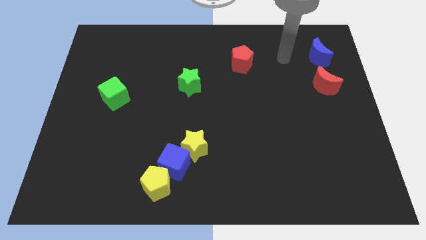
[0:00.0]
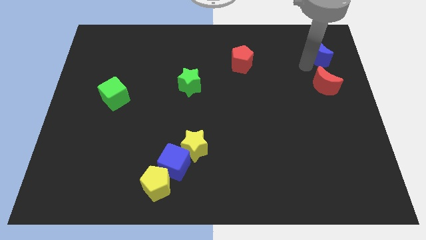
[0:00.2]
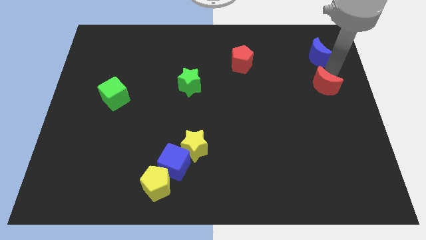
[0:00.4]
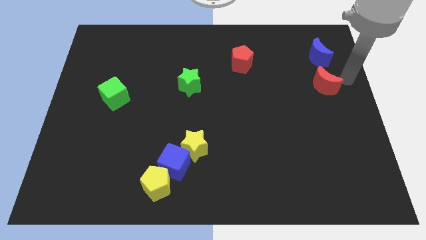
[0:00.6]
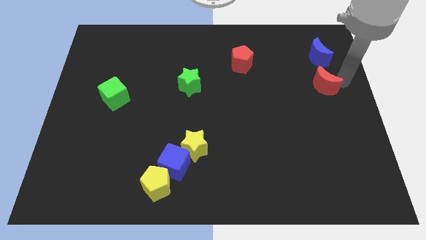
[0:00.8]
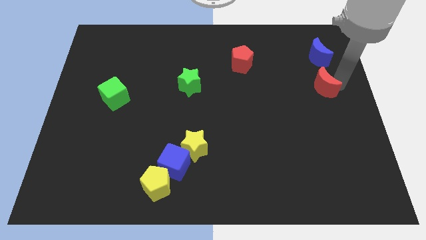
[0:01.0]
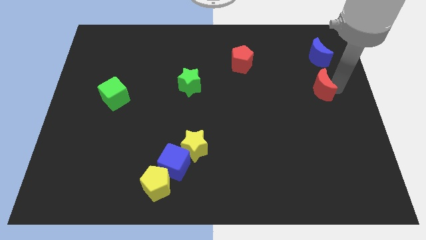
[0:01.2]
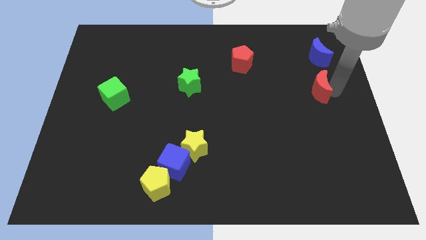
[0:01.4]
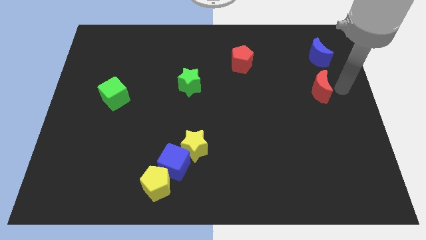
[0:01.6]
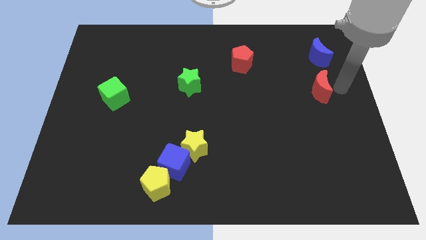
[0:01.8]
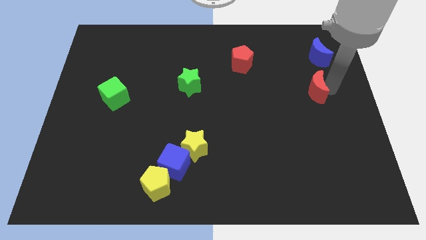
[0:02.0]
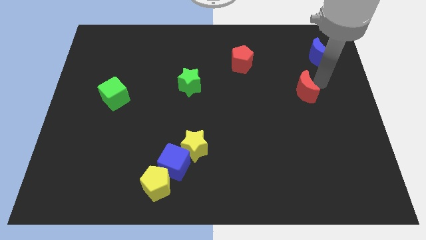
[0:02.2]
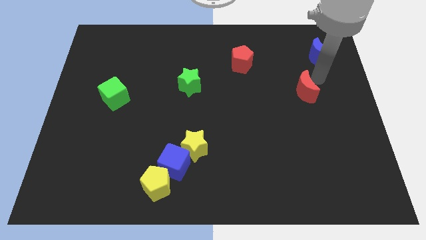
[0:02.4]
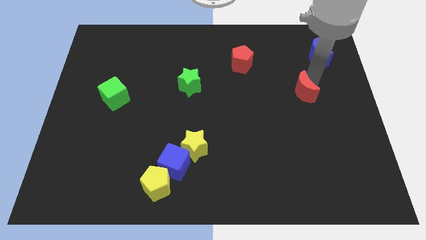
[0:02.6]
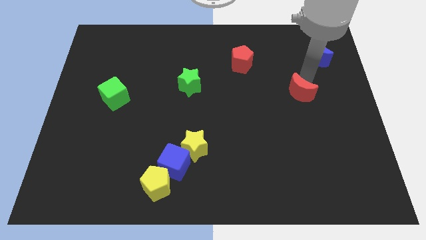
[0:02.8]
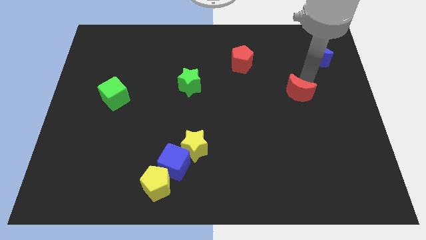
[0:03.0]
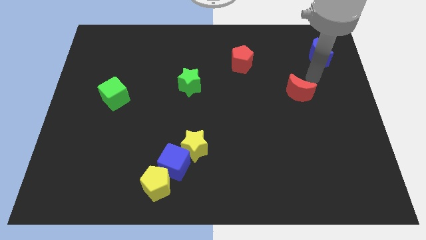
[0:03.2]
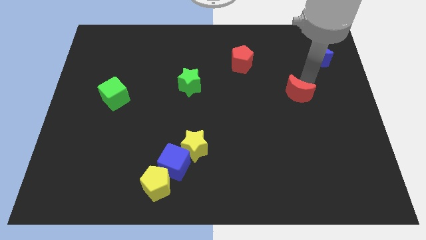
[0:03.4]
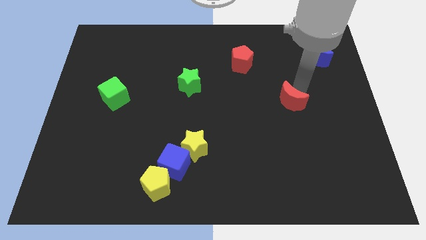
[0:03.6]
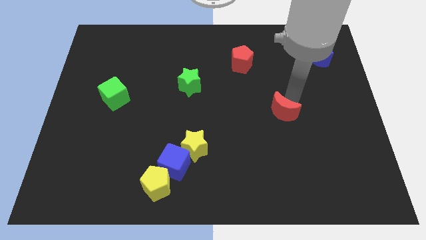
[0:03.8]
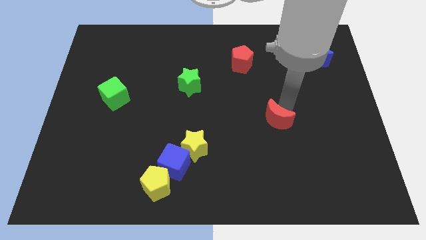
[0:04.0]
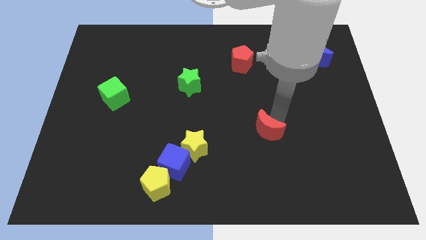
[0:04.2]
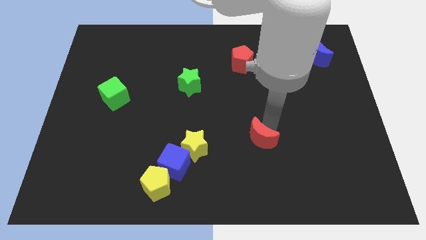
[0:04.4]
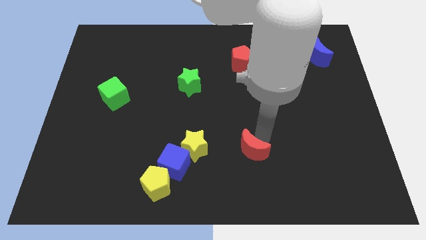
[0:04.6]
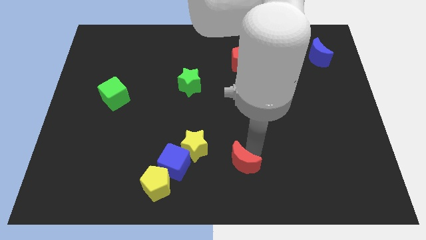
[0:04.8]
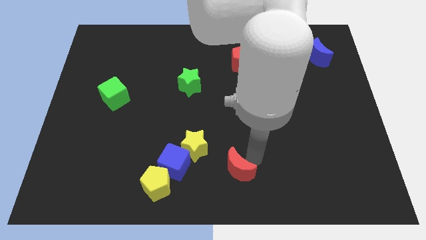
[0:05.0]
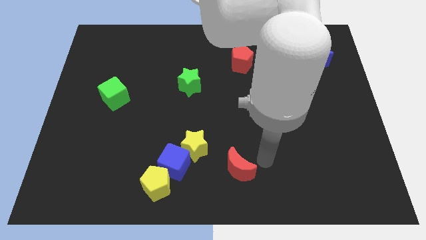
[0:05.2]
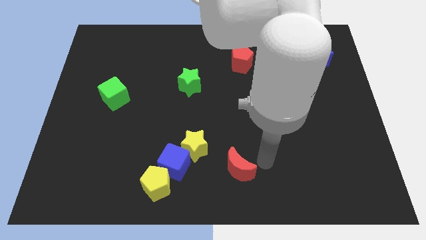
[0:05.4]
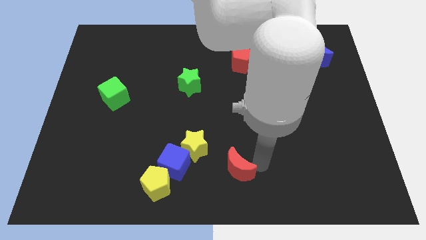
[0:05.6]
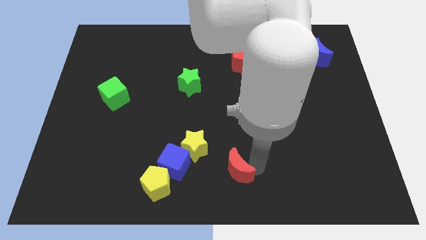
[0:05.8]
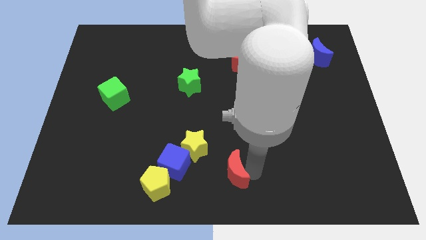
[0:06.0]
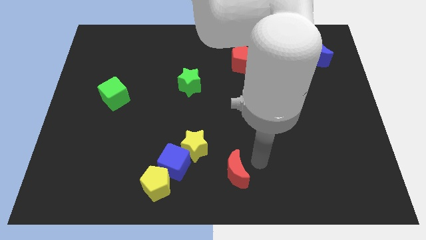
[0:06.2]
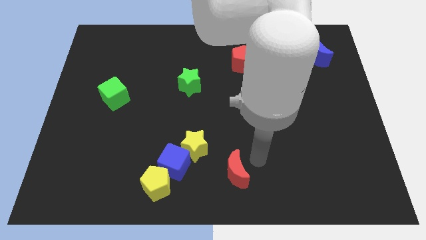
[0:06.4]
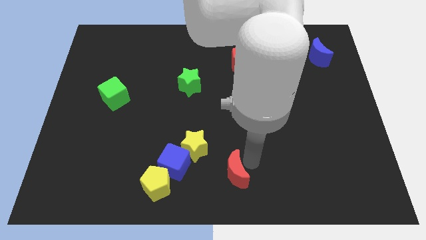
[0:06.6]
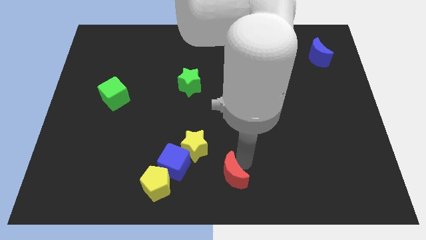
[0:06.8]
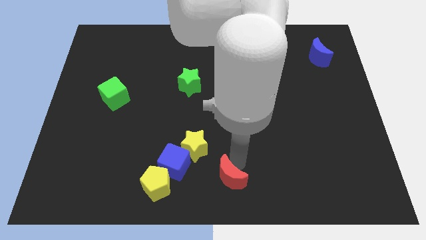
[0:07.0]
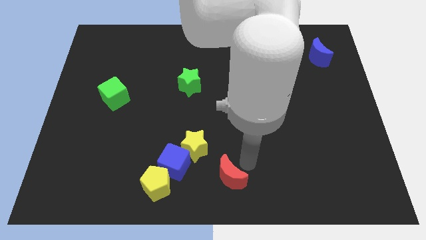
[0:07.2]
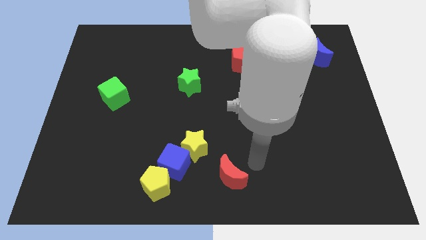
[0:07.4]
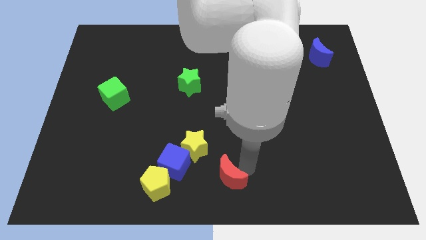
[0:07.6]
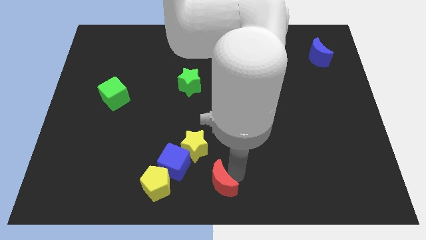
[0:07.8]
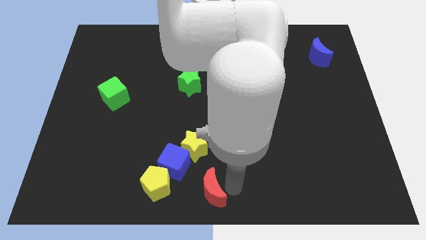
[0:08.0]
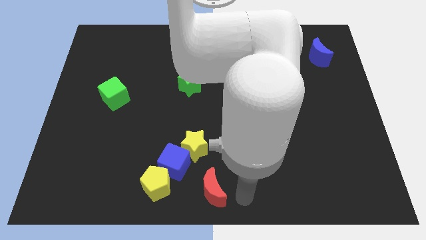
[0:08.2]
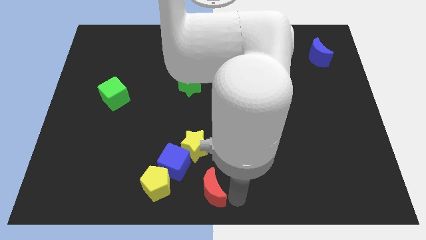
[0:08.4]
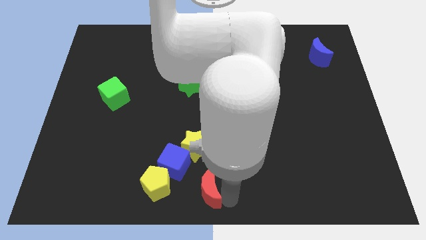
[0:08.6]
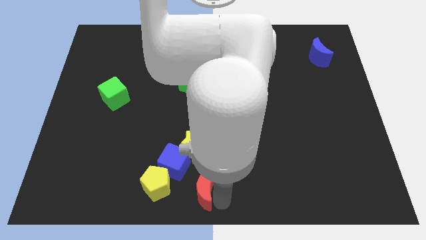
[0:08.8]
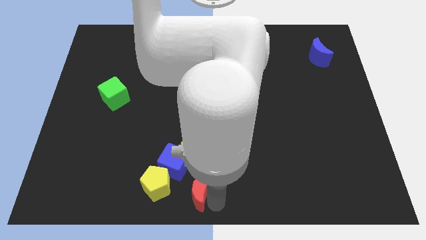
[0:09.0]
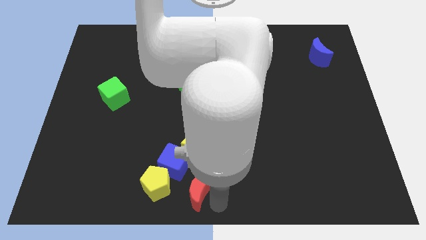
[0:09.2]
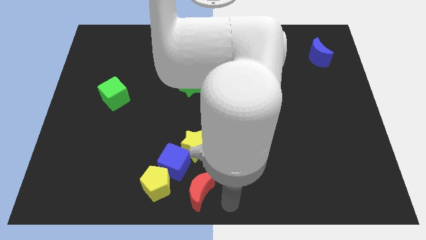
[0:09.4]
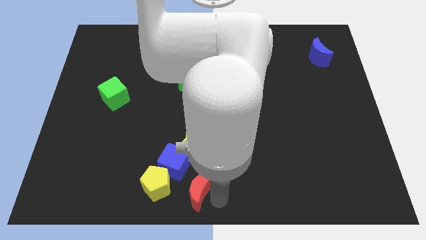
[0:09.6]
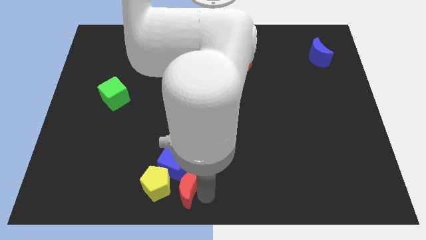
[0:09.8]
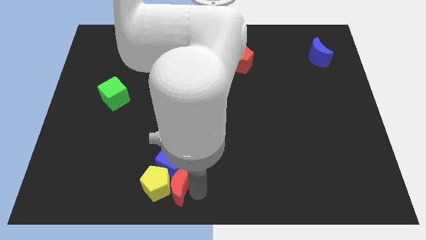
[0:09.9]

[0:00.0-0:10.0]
move the red moon next to the yellow pentagon

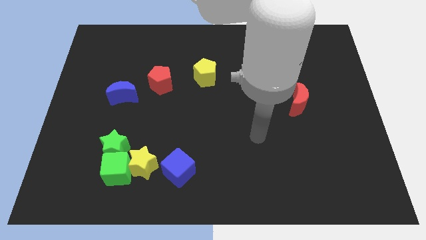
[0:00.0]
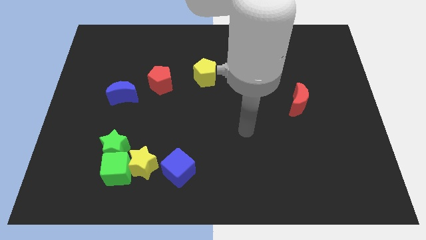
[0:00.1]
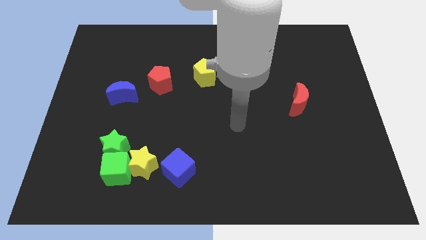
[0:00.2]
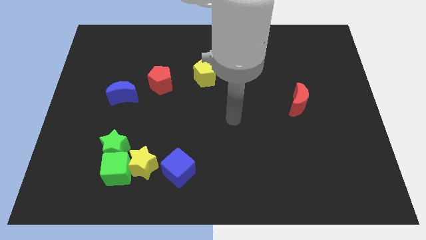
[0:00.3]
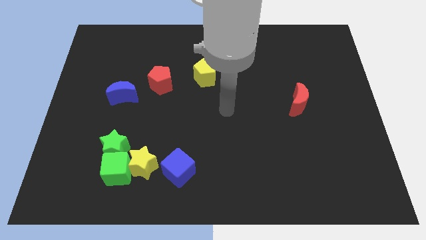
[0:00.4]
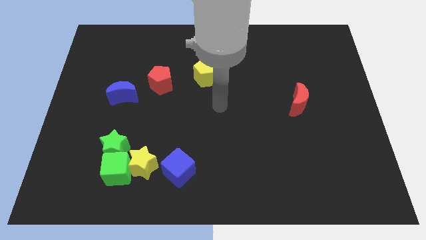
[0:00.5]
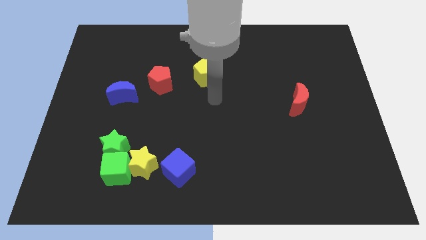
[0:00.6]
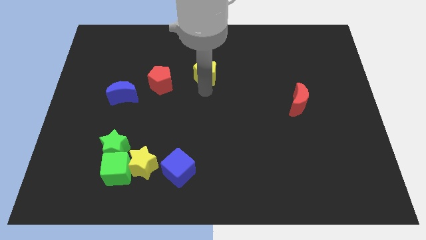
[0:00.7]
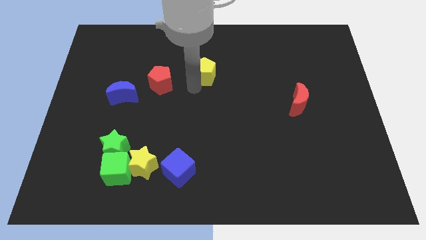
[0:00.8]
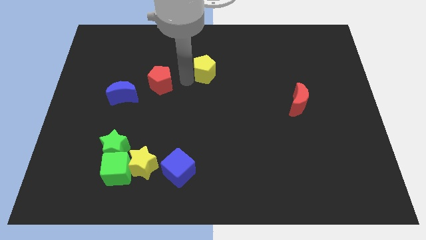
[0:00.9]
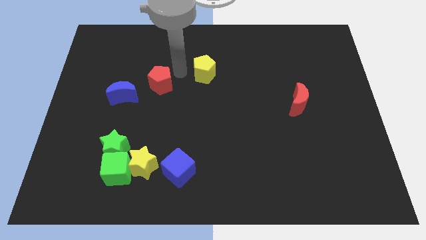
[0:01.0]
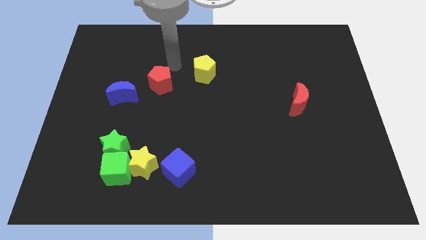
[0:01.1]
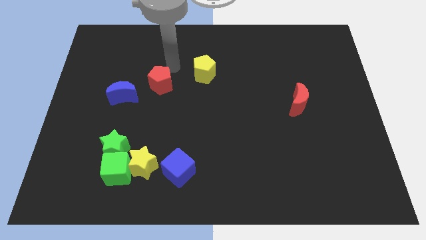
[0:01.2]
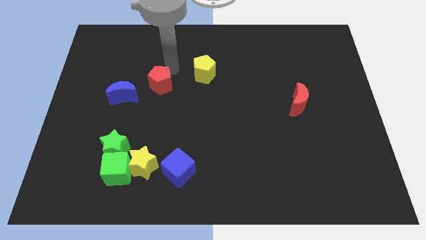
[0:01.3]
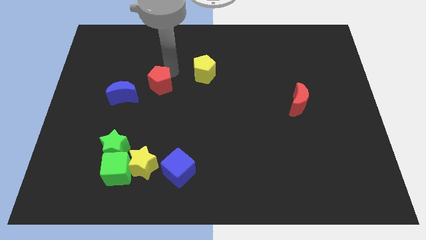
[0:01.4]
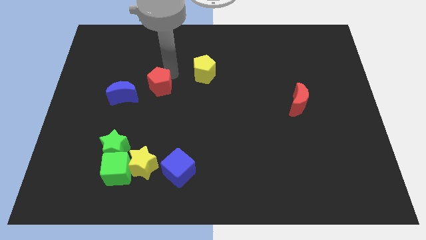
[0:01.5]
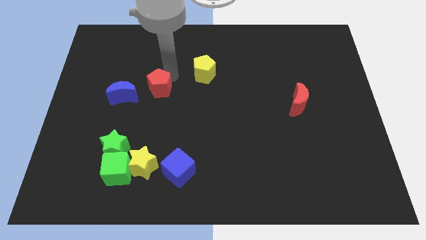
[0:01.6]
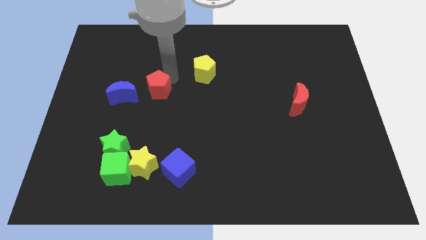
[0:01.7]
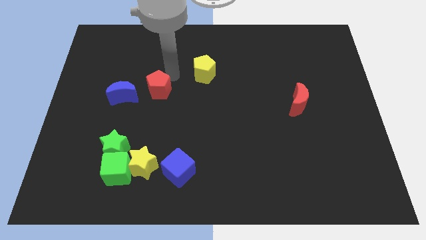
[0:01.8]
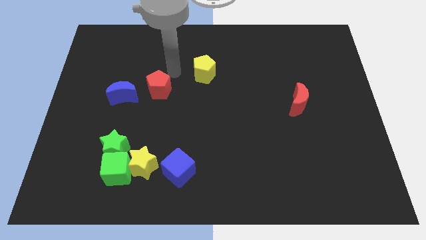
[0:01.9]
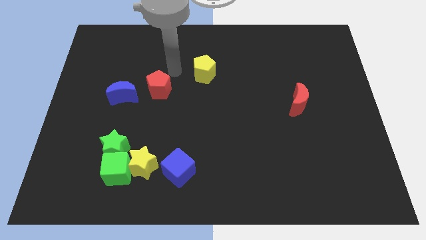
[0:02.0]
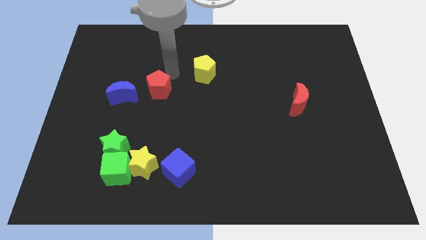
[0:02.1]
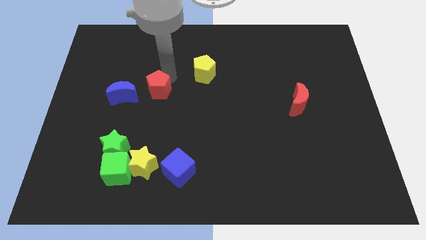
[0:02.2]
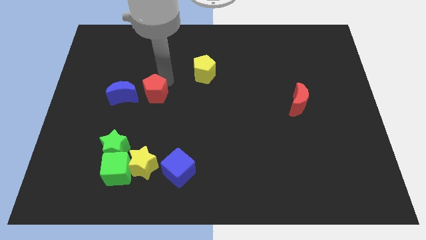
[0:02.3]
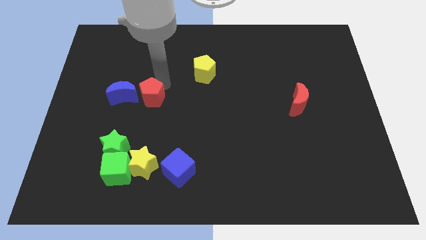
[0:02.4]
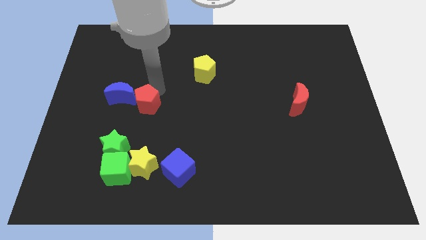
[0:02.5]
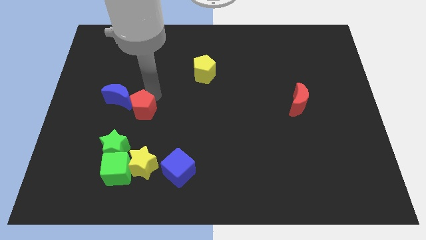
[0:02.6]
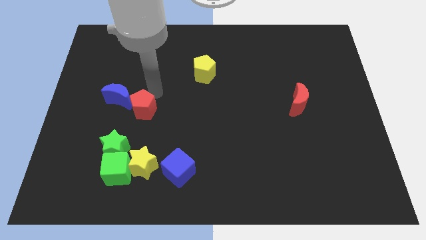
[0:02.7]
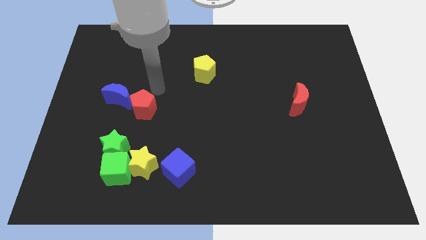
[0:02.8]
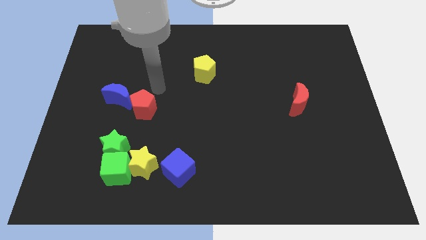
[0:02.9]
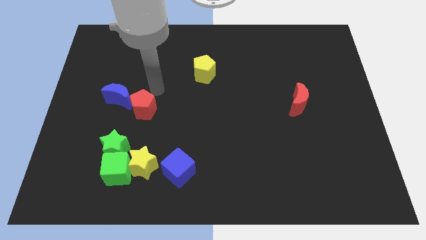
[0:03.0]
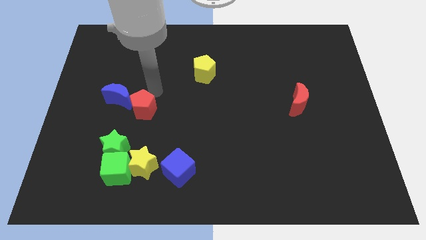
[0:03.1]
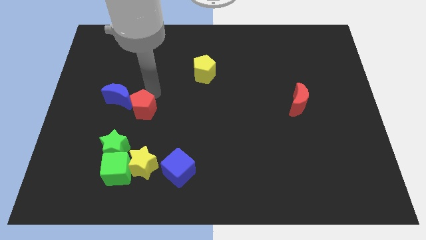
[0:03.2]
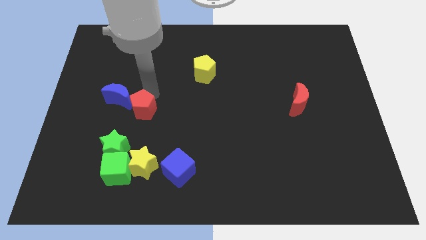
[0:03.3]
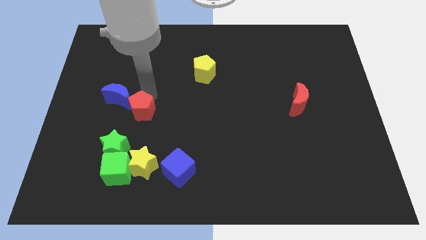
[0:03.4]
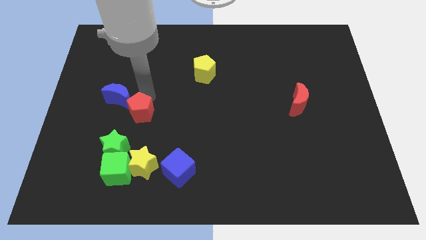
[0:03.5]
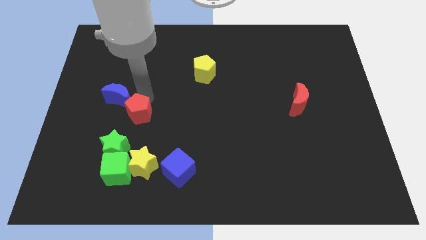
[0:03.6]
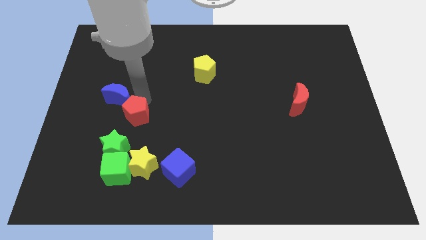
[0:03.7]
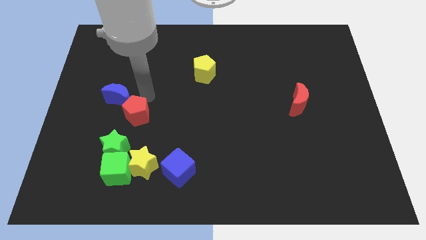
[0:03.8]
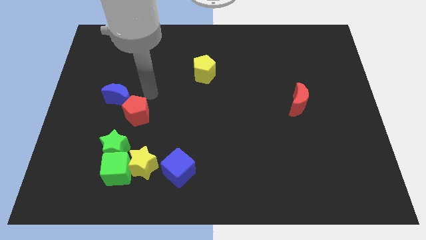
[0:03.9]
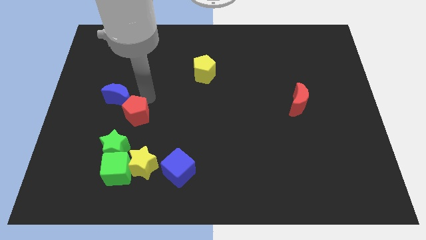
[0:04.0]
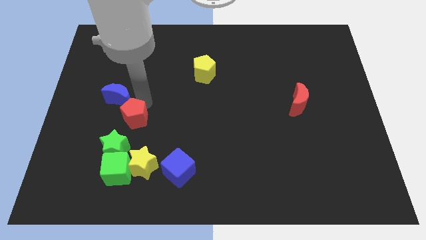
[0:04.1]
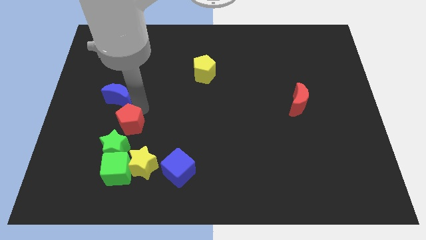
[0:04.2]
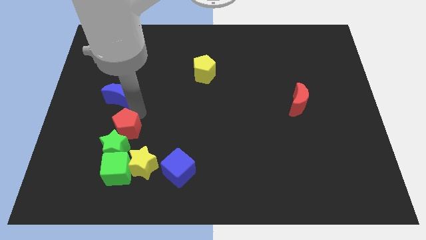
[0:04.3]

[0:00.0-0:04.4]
move the red pentagon next to the green star
